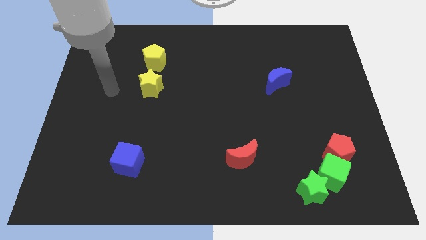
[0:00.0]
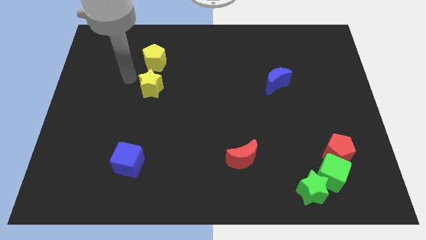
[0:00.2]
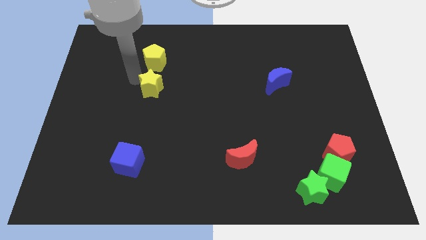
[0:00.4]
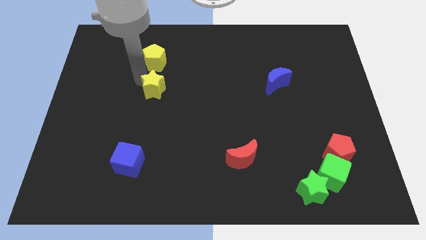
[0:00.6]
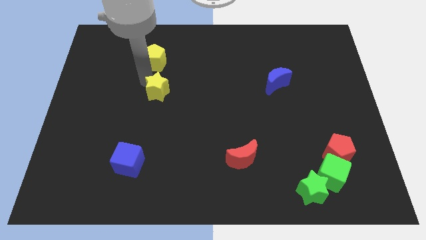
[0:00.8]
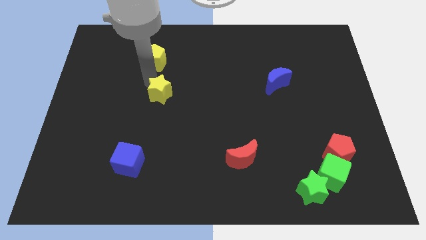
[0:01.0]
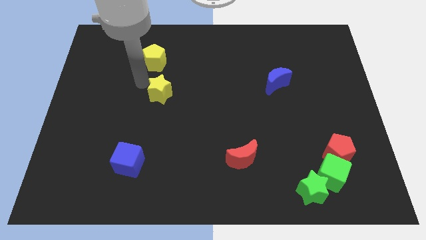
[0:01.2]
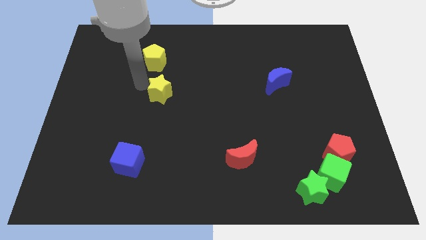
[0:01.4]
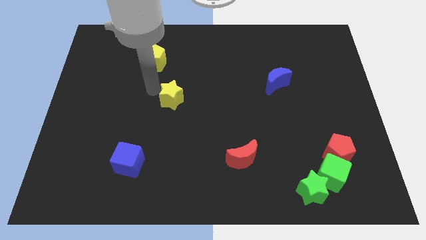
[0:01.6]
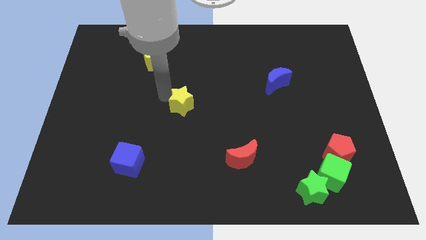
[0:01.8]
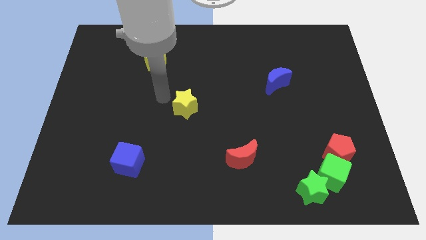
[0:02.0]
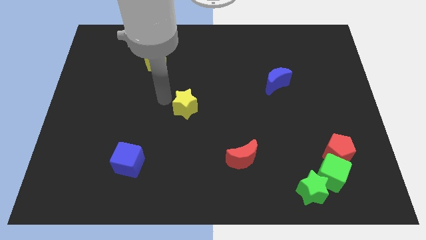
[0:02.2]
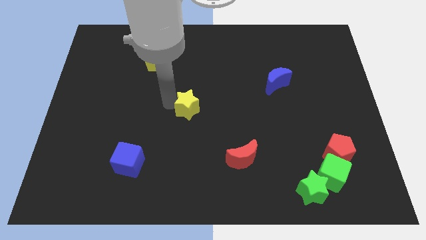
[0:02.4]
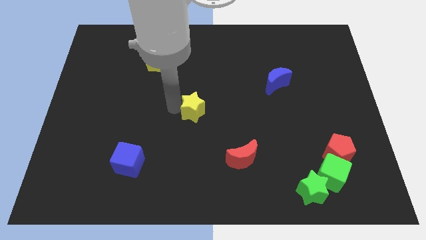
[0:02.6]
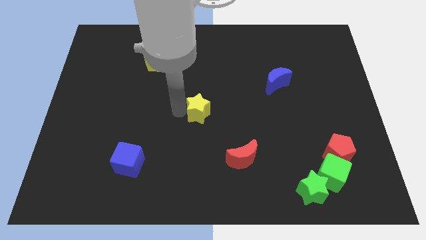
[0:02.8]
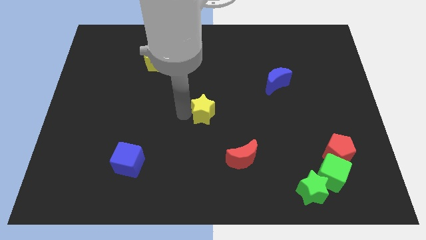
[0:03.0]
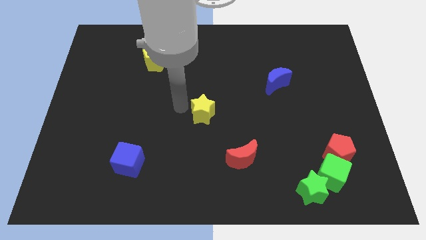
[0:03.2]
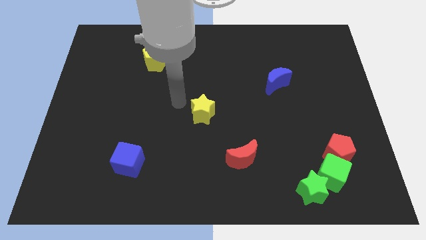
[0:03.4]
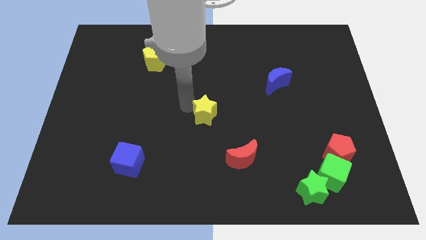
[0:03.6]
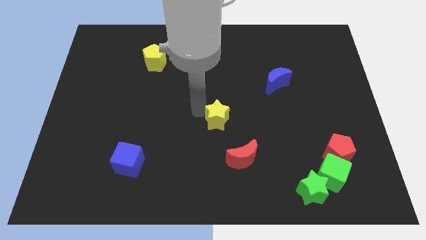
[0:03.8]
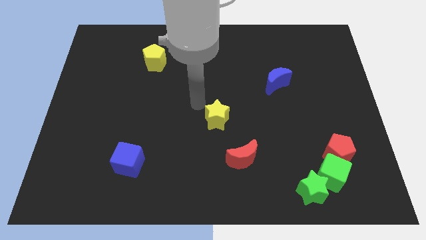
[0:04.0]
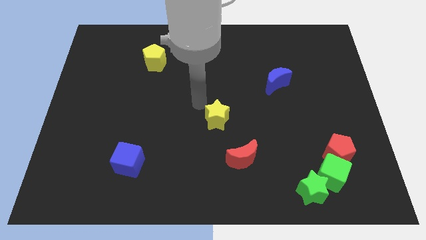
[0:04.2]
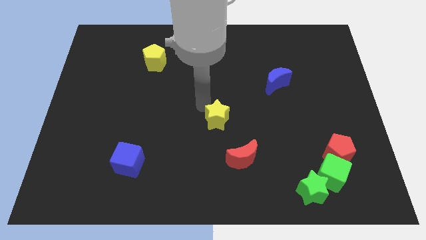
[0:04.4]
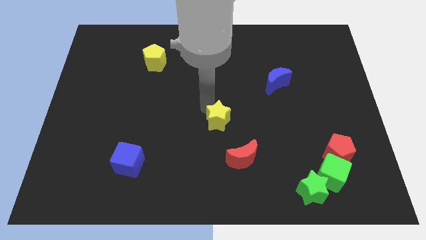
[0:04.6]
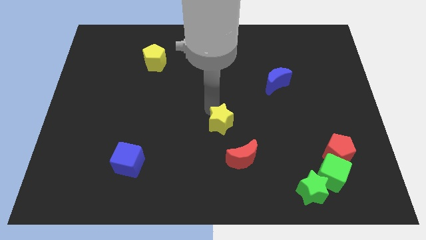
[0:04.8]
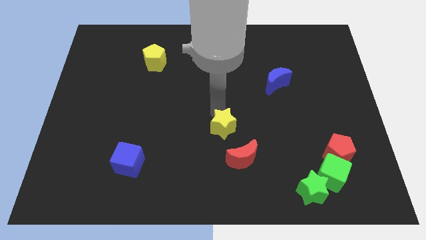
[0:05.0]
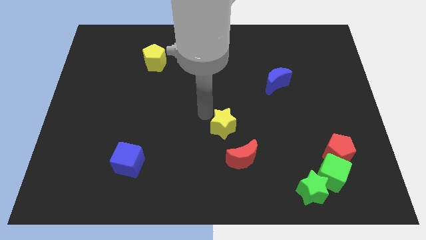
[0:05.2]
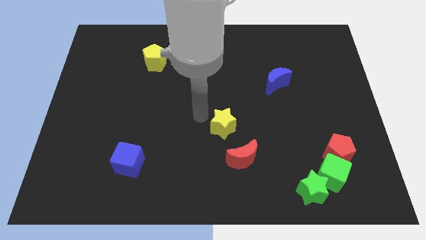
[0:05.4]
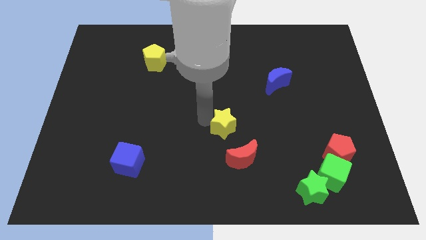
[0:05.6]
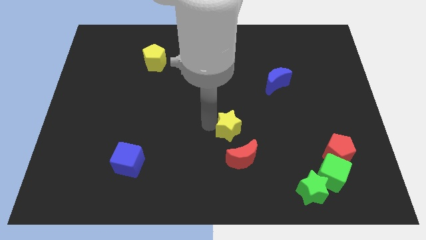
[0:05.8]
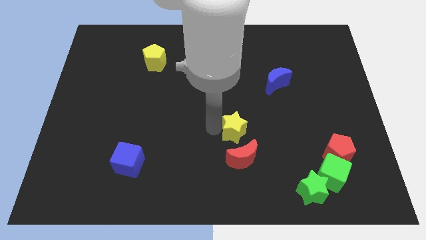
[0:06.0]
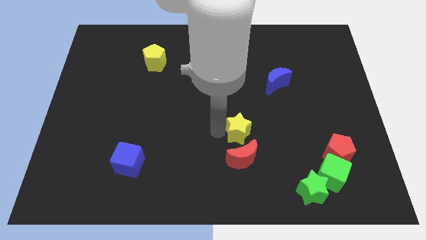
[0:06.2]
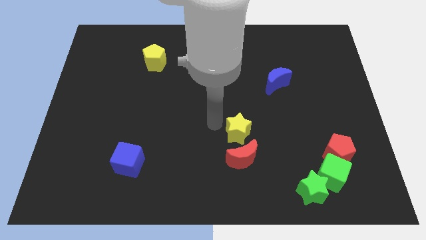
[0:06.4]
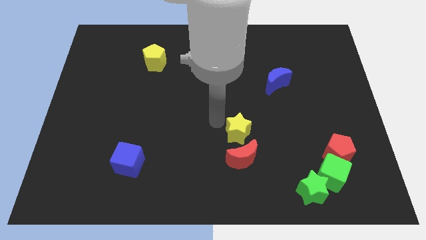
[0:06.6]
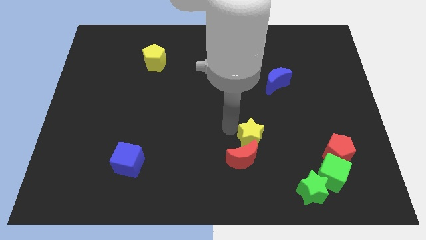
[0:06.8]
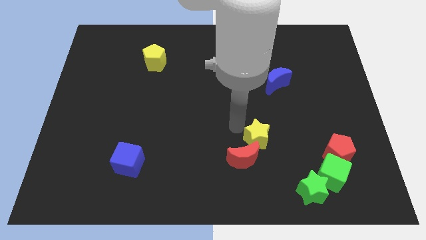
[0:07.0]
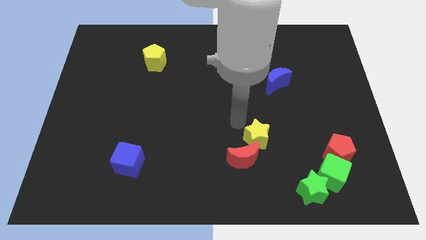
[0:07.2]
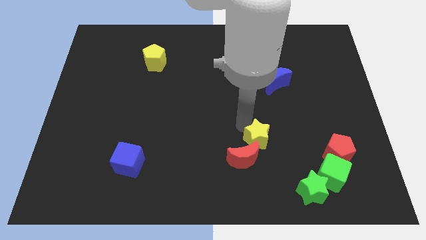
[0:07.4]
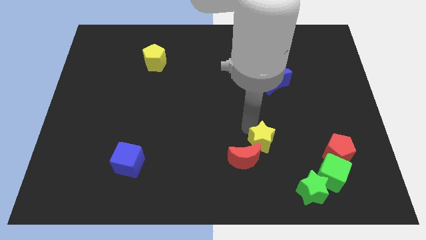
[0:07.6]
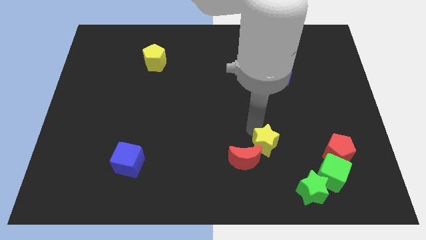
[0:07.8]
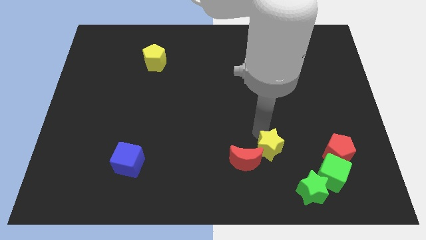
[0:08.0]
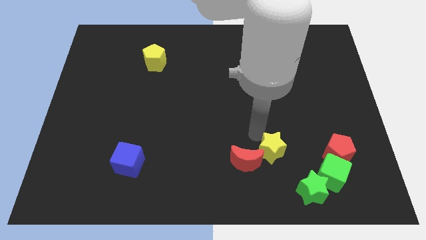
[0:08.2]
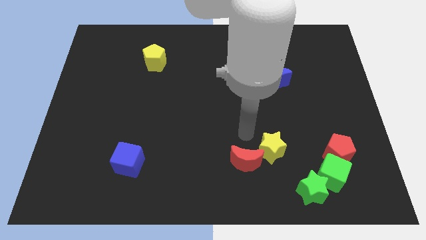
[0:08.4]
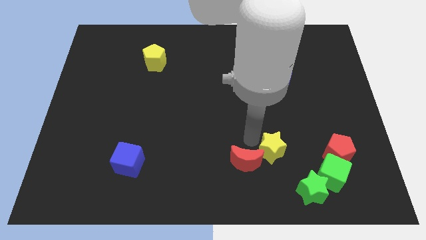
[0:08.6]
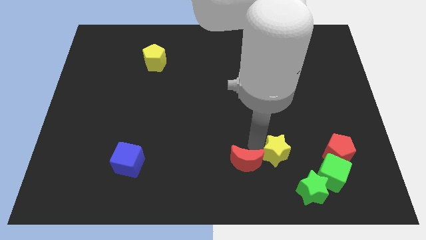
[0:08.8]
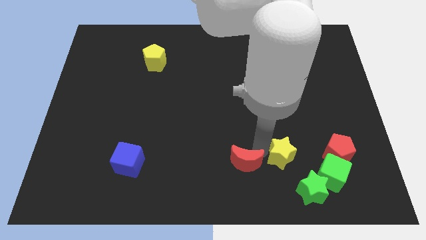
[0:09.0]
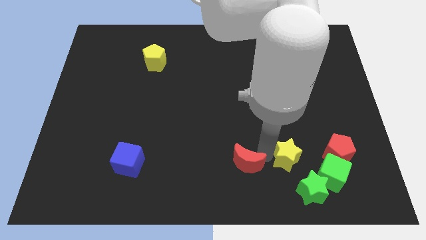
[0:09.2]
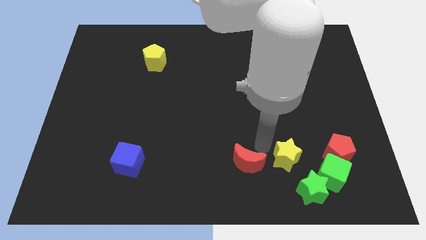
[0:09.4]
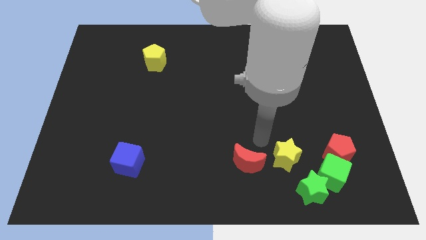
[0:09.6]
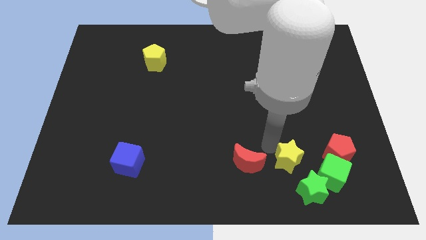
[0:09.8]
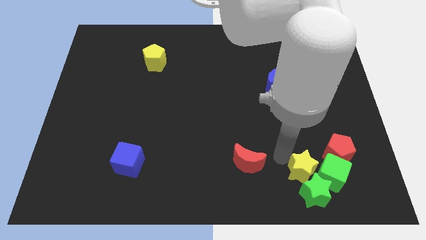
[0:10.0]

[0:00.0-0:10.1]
move the yellow star close to the green cube

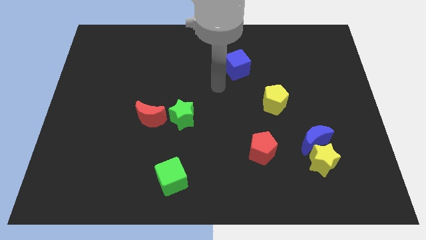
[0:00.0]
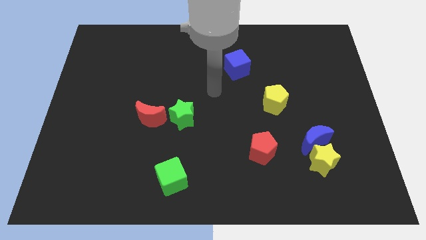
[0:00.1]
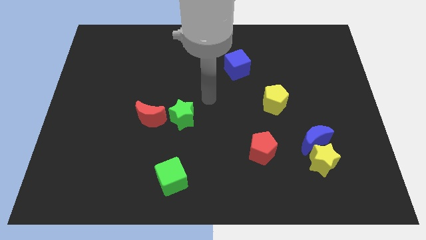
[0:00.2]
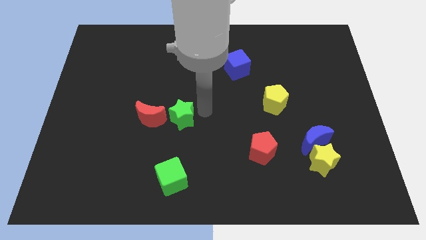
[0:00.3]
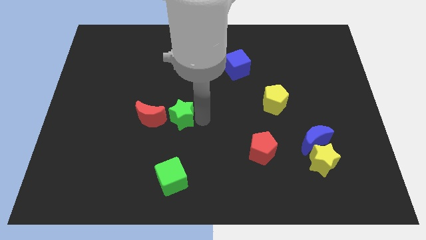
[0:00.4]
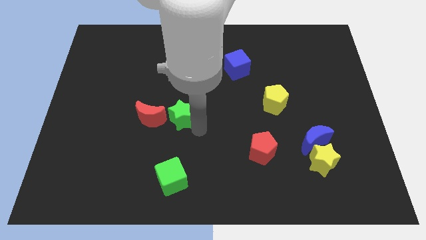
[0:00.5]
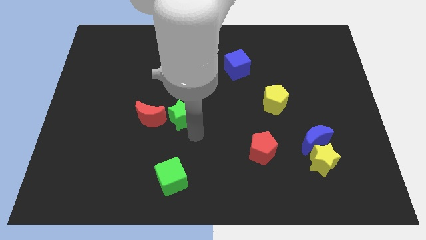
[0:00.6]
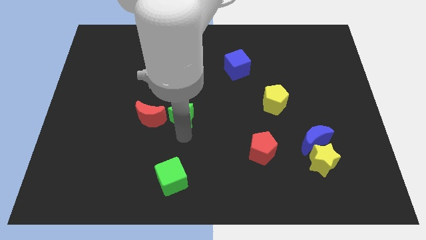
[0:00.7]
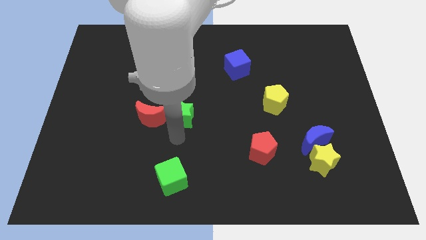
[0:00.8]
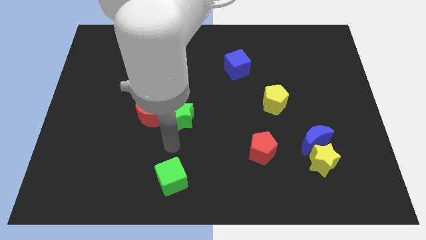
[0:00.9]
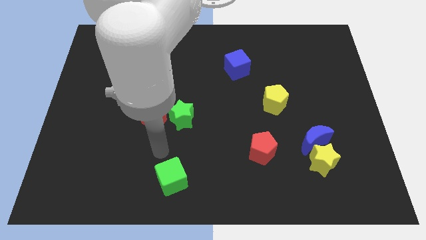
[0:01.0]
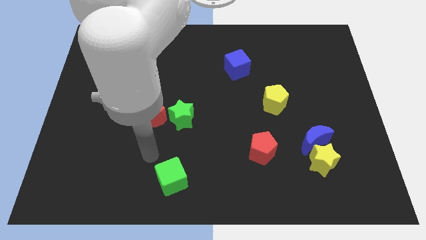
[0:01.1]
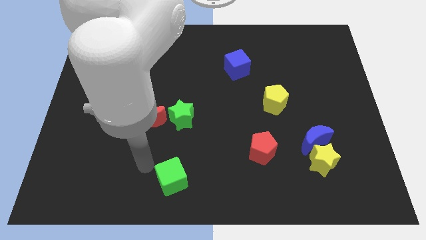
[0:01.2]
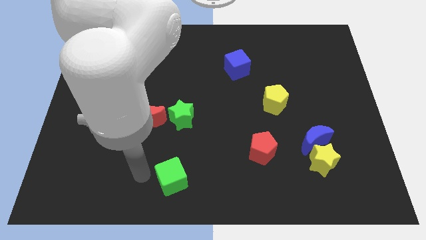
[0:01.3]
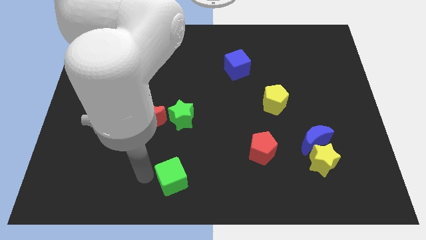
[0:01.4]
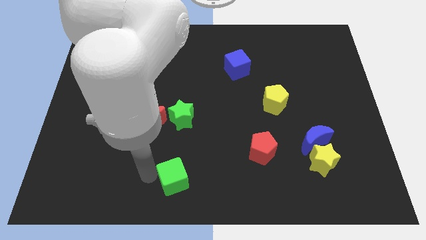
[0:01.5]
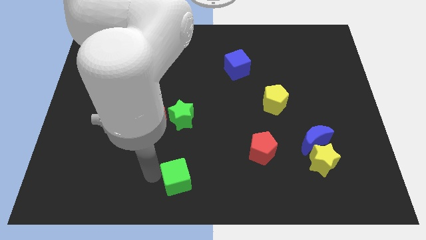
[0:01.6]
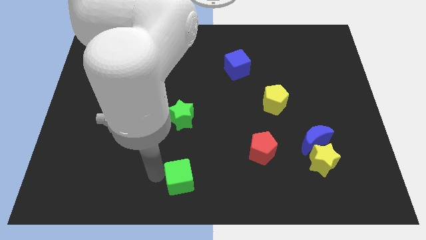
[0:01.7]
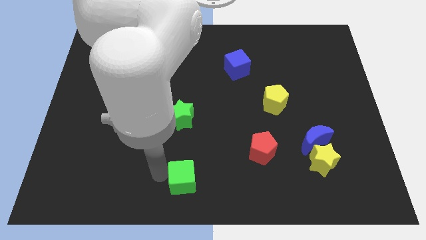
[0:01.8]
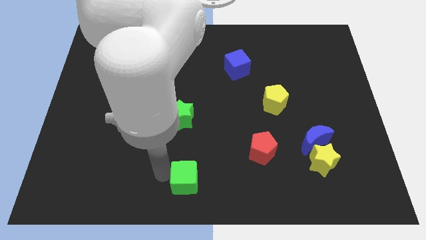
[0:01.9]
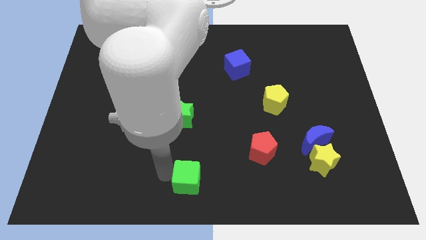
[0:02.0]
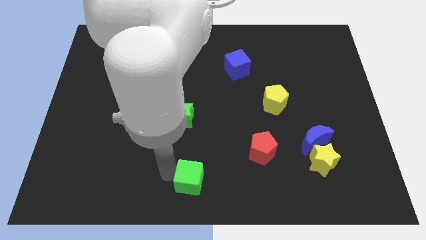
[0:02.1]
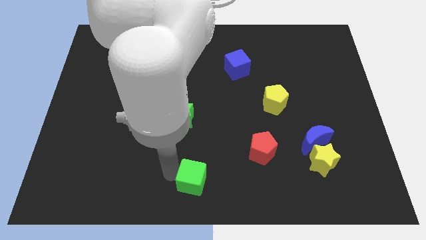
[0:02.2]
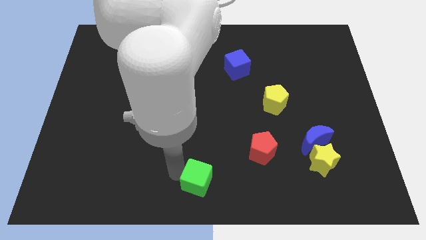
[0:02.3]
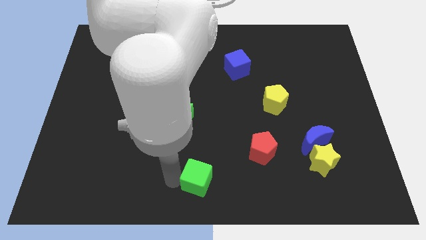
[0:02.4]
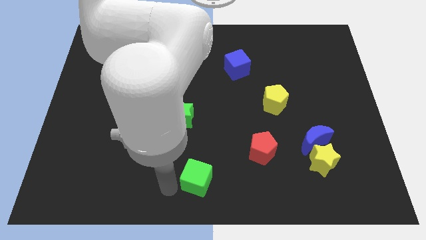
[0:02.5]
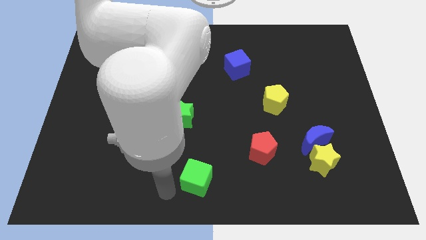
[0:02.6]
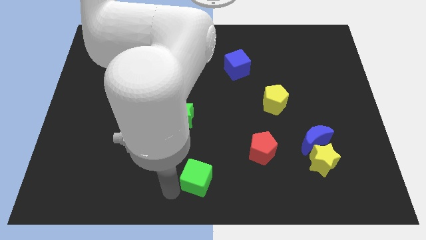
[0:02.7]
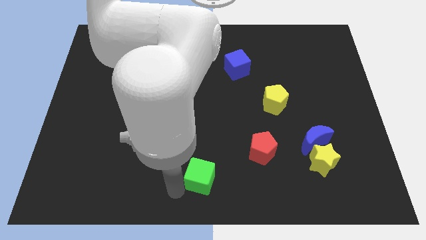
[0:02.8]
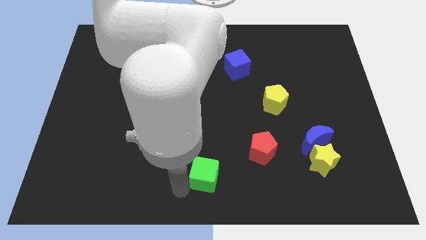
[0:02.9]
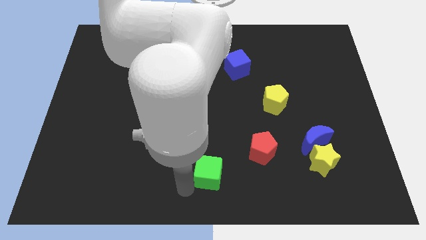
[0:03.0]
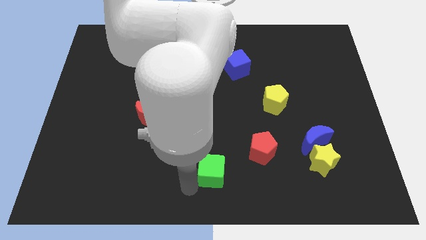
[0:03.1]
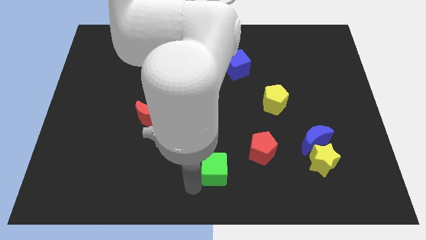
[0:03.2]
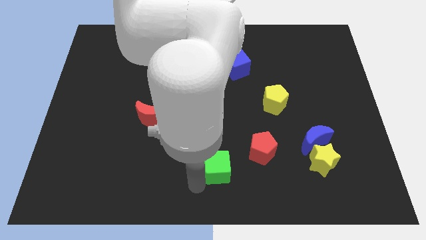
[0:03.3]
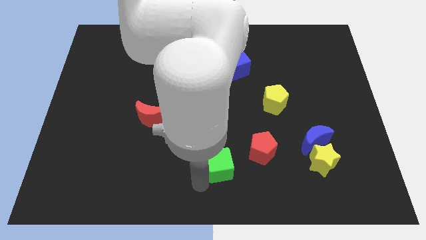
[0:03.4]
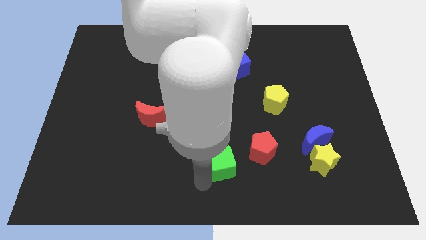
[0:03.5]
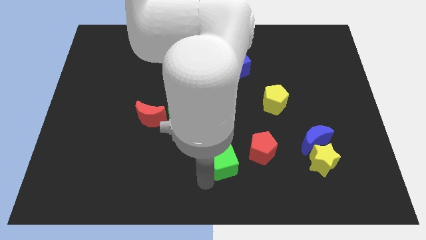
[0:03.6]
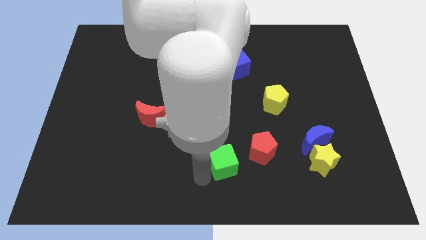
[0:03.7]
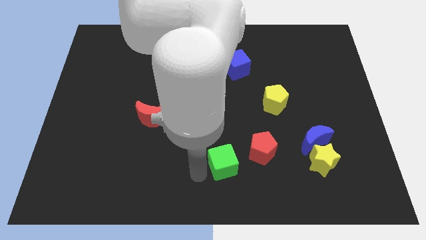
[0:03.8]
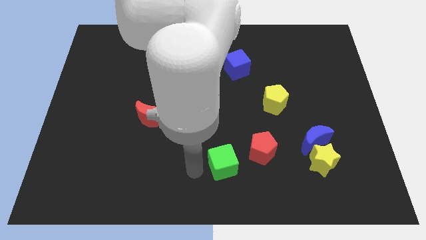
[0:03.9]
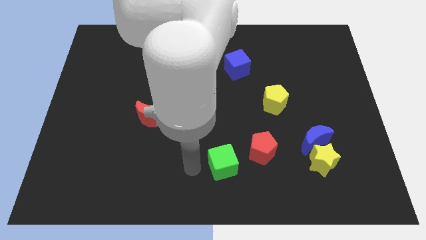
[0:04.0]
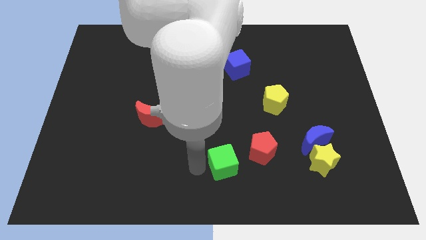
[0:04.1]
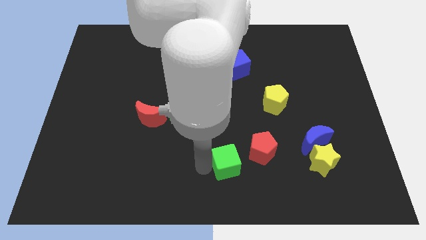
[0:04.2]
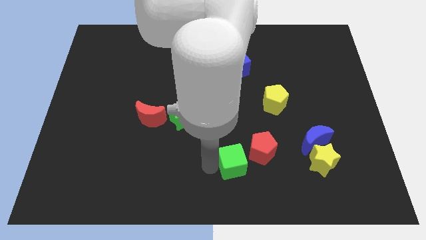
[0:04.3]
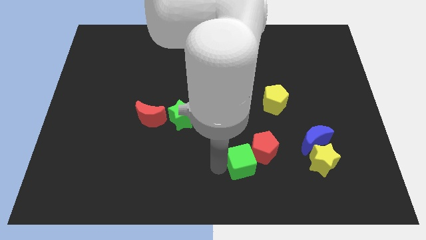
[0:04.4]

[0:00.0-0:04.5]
put the green cube next to the red pentagon
